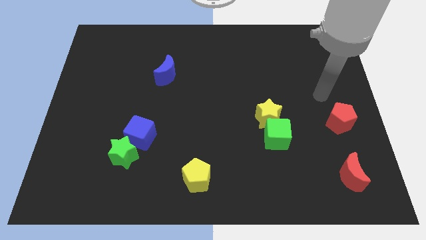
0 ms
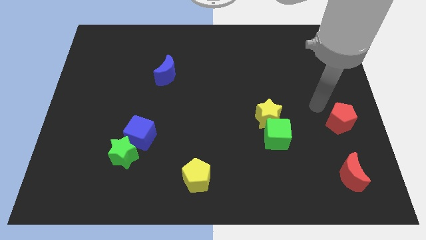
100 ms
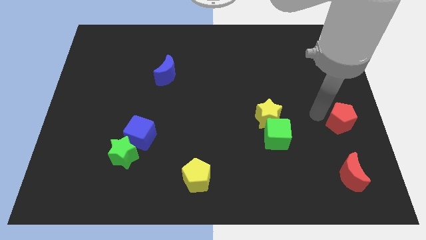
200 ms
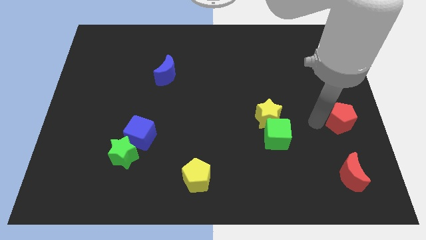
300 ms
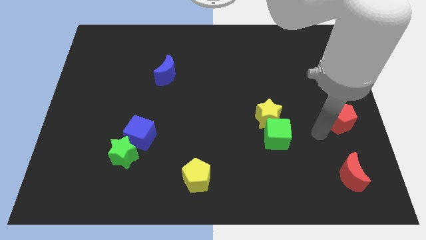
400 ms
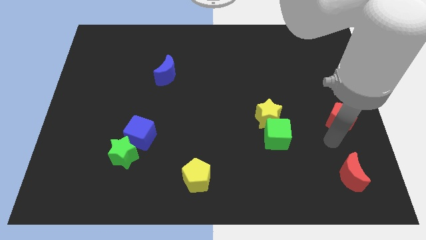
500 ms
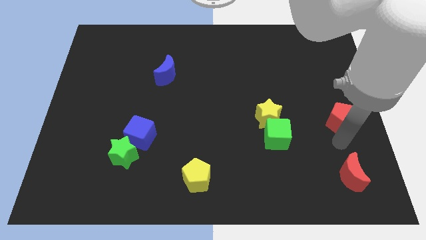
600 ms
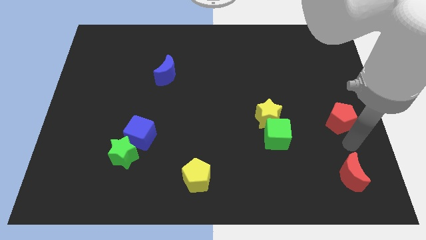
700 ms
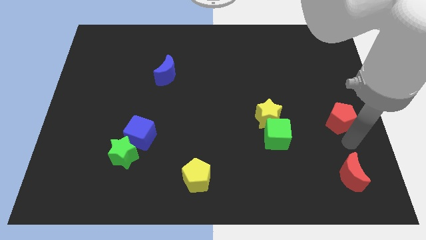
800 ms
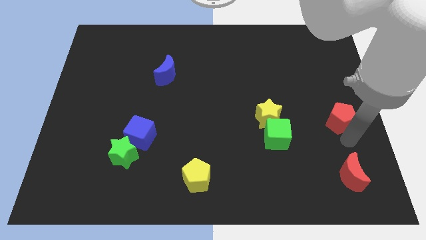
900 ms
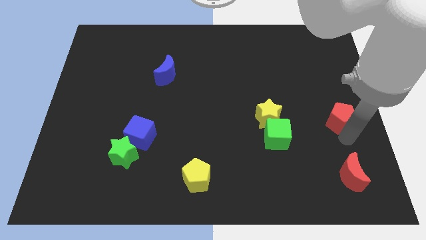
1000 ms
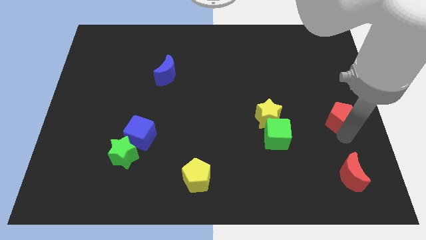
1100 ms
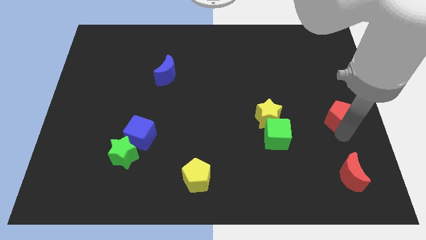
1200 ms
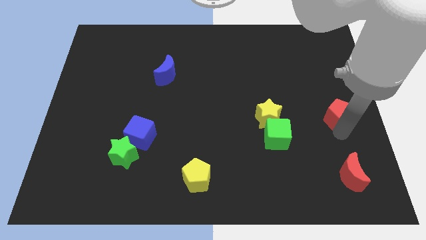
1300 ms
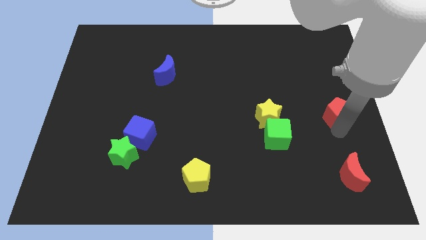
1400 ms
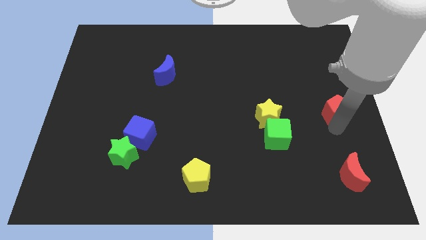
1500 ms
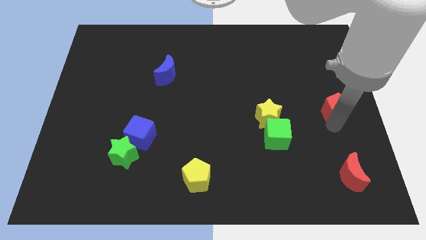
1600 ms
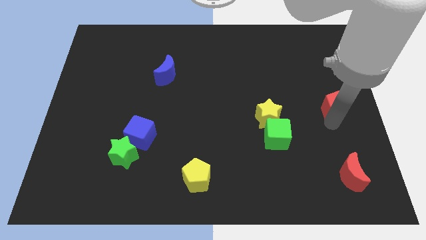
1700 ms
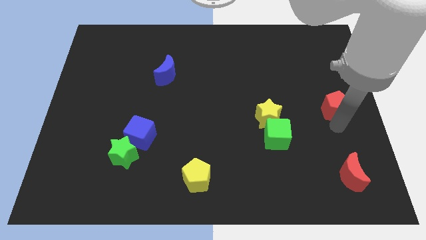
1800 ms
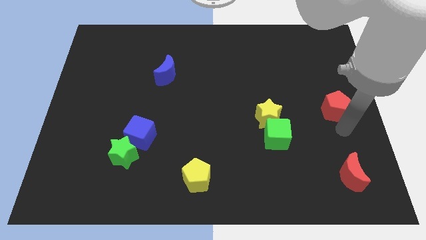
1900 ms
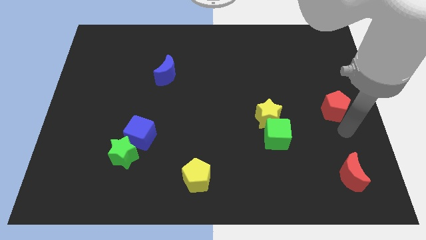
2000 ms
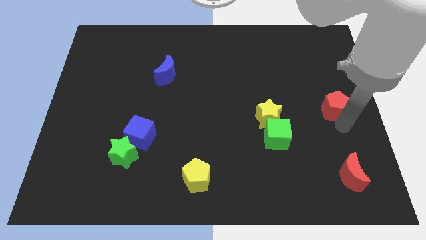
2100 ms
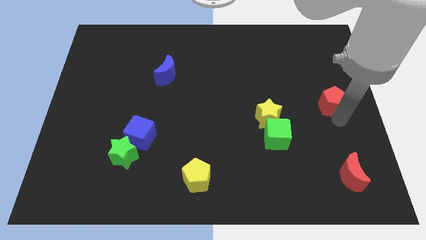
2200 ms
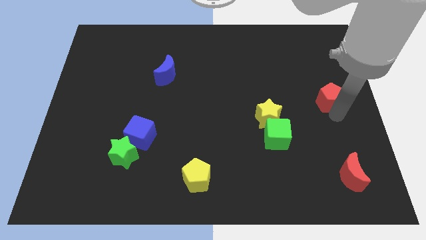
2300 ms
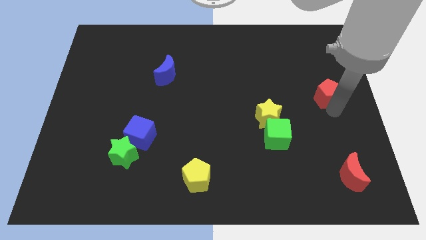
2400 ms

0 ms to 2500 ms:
move the red pentagon a bit upwards

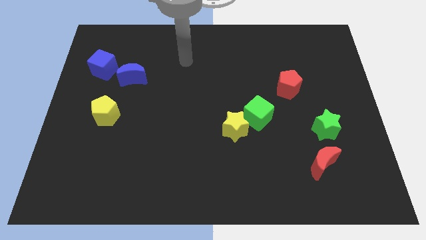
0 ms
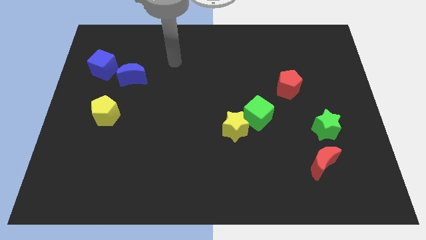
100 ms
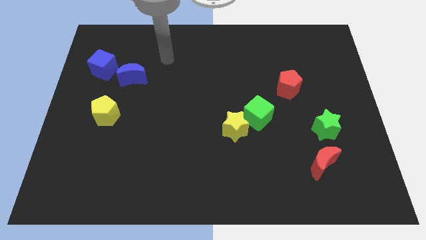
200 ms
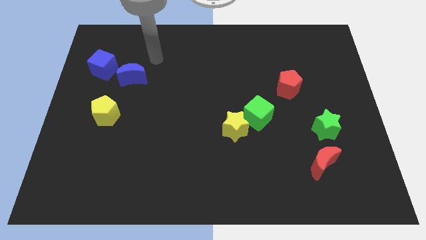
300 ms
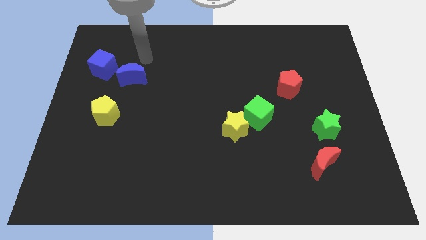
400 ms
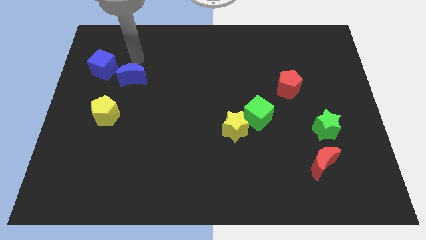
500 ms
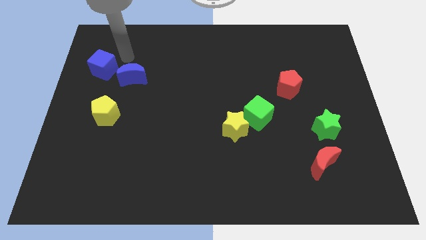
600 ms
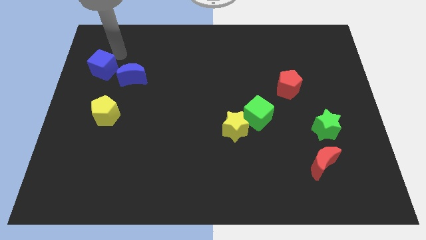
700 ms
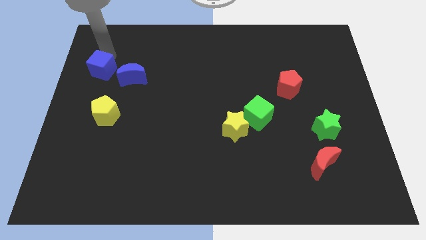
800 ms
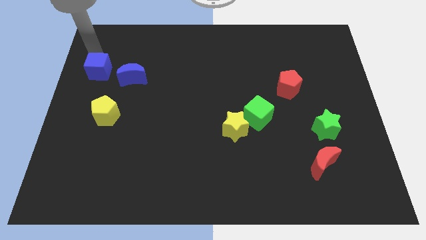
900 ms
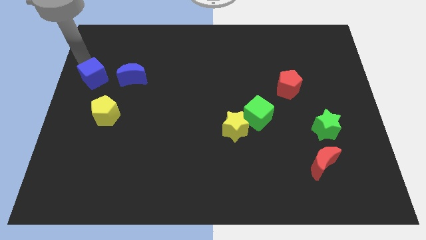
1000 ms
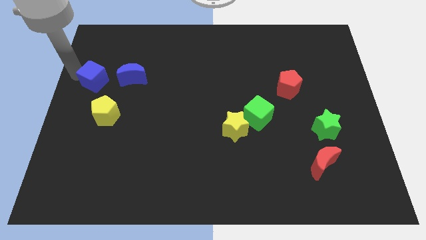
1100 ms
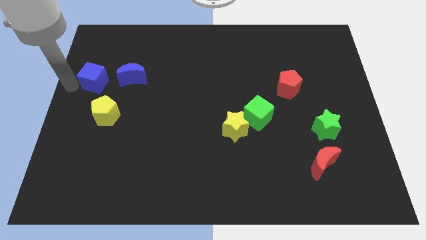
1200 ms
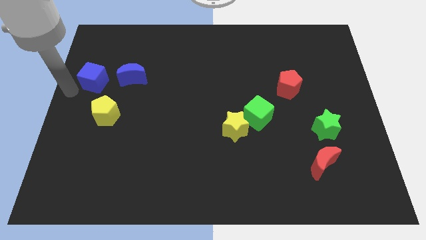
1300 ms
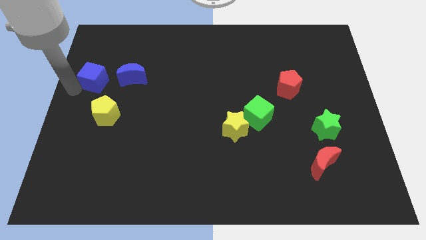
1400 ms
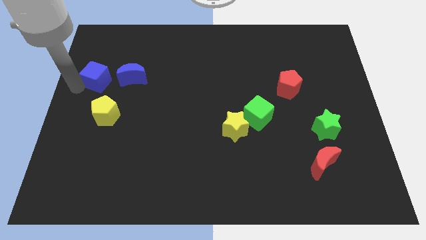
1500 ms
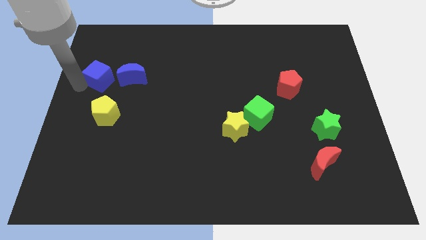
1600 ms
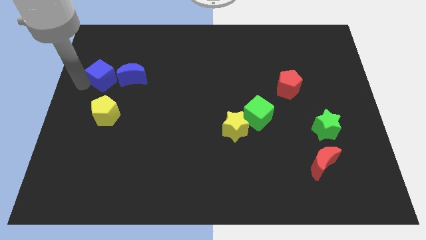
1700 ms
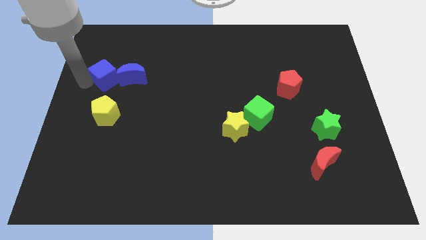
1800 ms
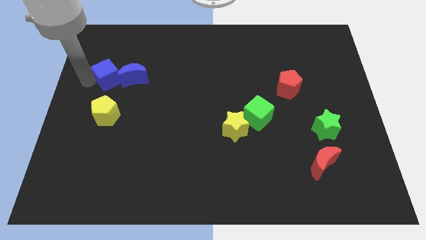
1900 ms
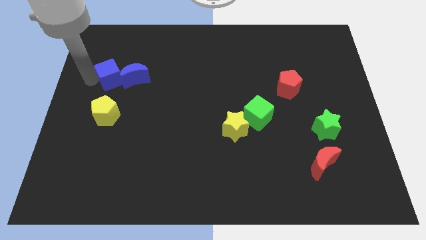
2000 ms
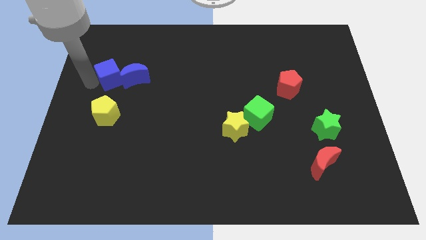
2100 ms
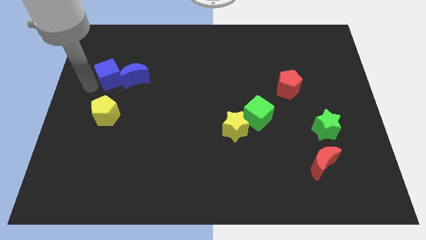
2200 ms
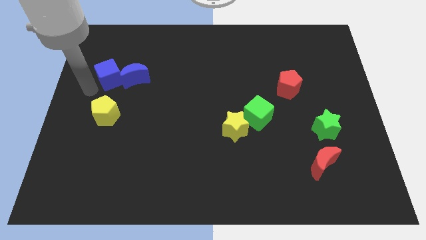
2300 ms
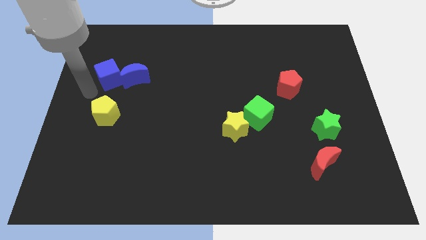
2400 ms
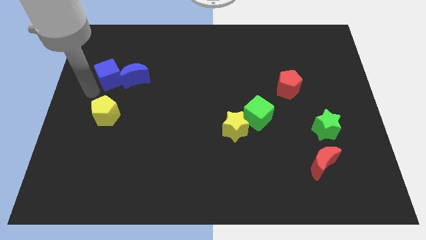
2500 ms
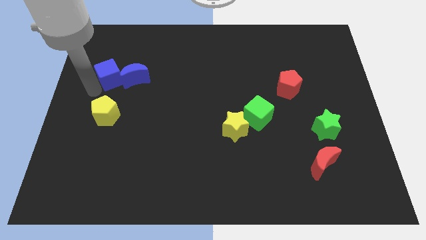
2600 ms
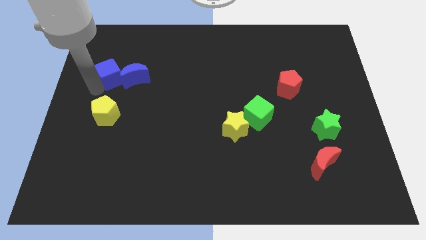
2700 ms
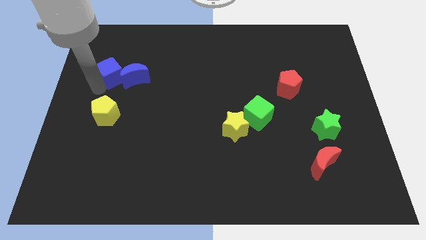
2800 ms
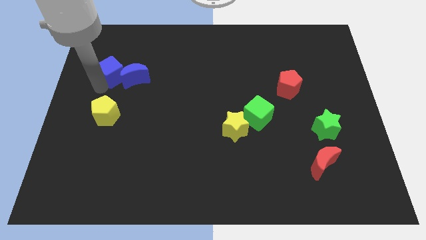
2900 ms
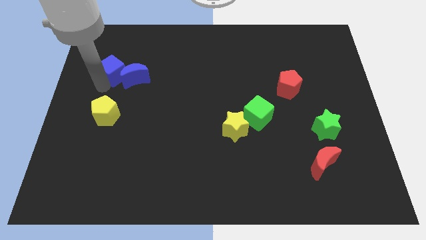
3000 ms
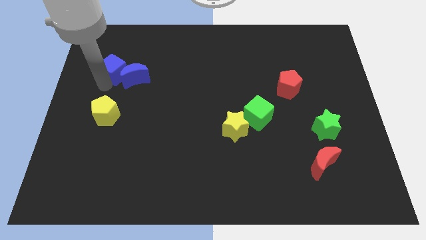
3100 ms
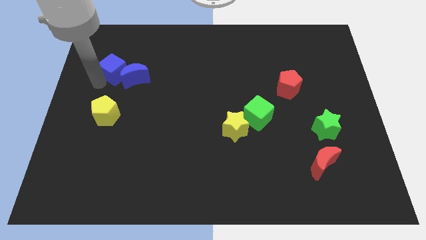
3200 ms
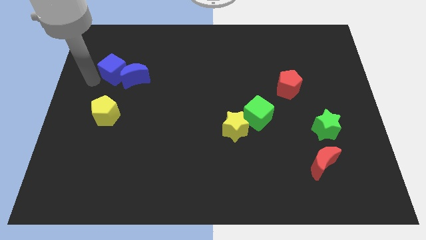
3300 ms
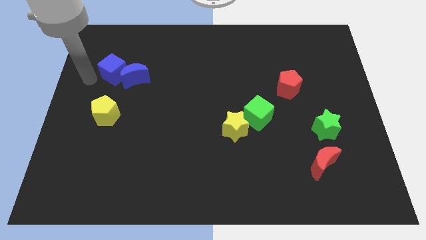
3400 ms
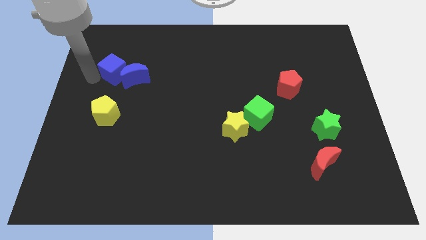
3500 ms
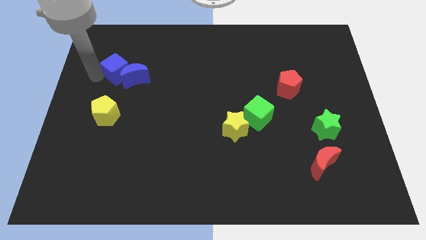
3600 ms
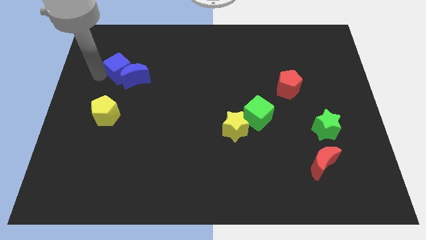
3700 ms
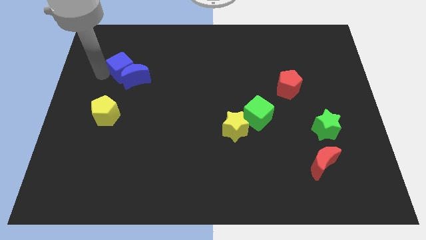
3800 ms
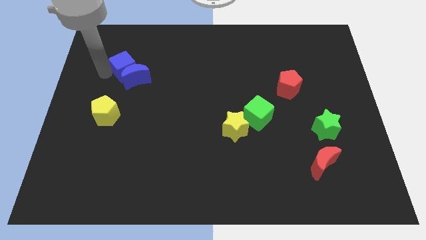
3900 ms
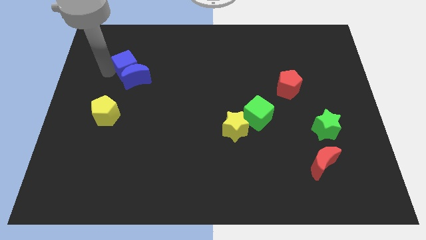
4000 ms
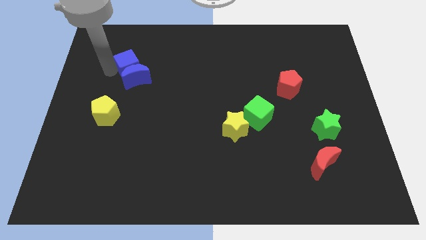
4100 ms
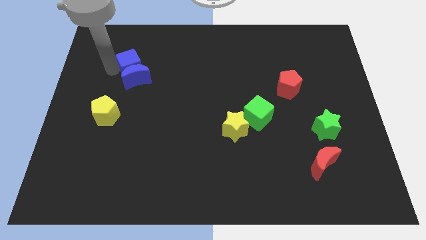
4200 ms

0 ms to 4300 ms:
slightly move the blue cube to the right

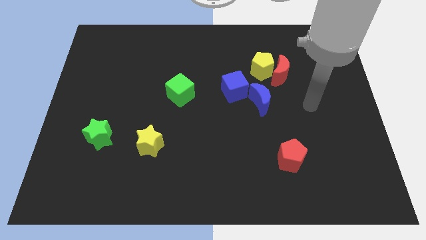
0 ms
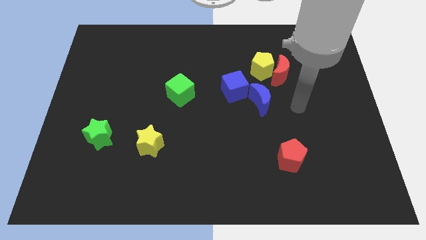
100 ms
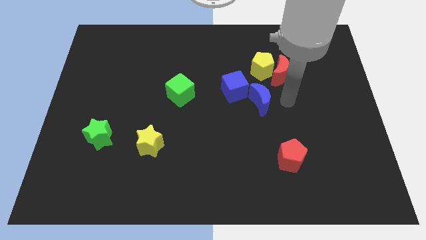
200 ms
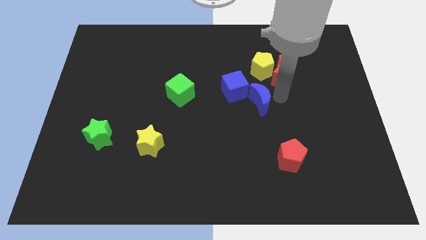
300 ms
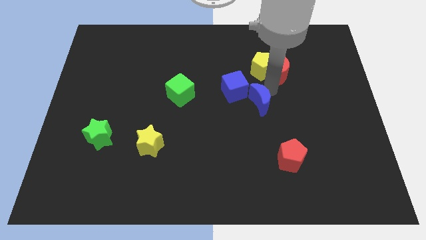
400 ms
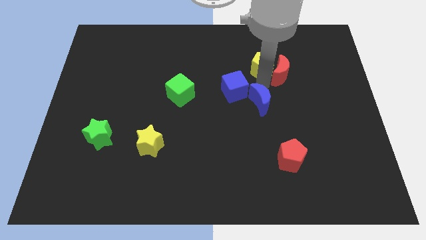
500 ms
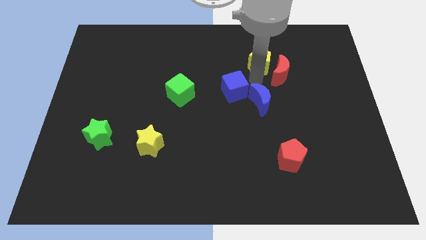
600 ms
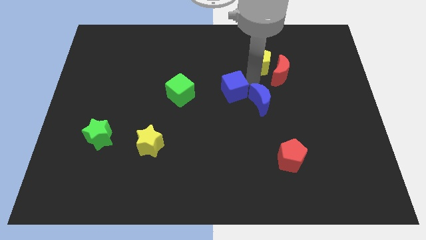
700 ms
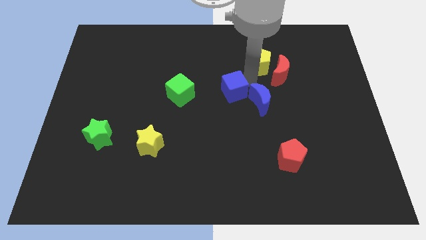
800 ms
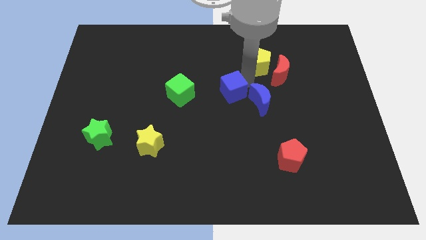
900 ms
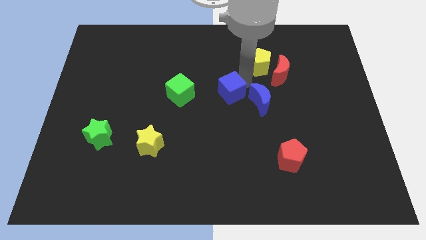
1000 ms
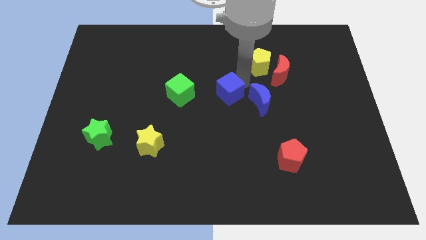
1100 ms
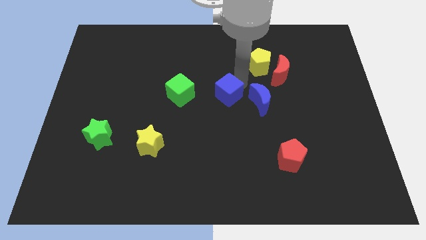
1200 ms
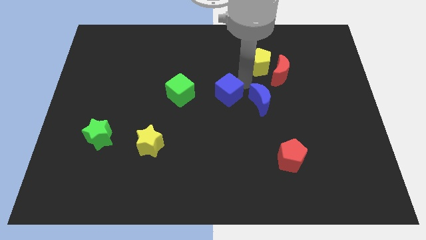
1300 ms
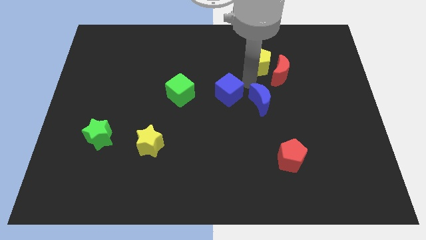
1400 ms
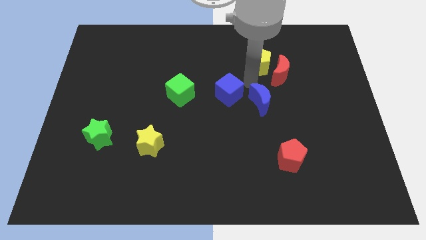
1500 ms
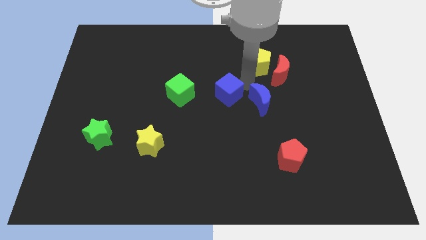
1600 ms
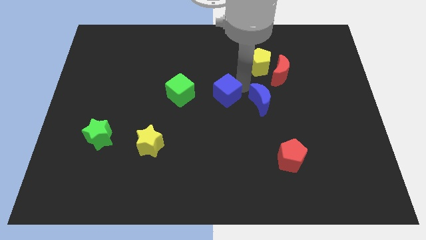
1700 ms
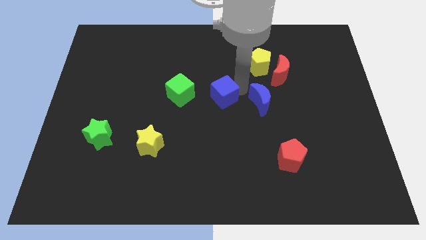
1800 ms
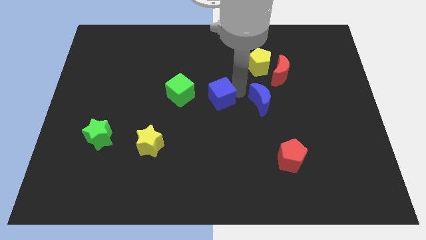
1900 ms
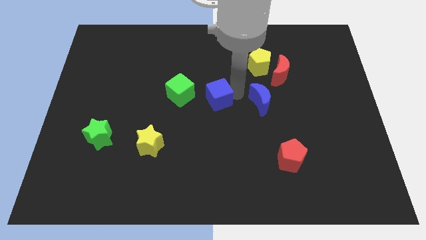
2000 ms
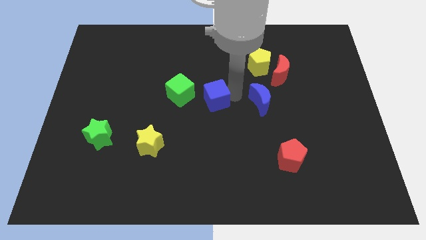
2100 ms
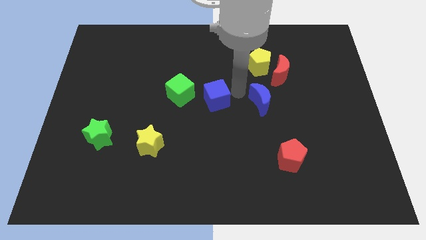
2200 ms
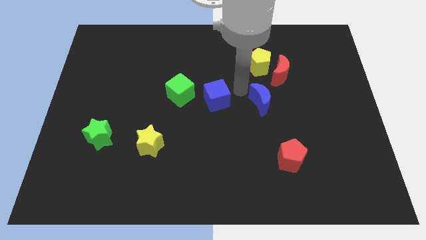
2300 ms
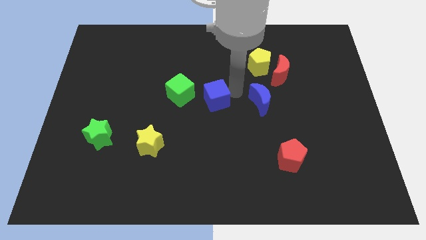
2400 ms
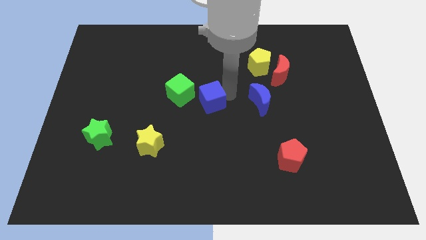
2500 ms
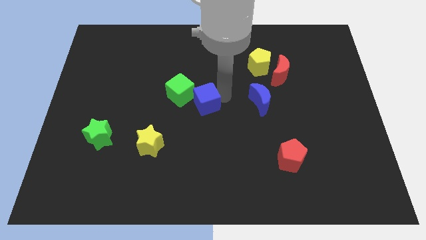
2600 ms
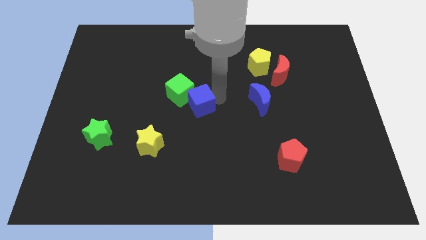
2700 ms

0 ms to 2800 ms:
slightly push the blue cube left
